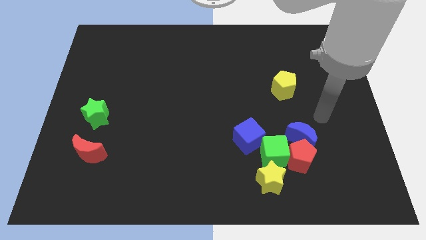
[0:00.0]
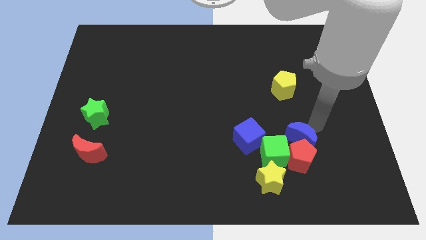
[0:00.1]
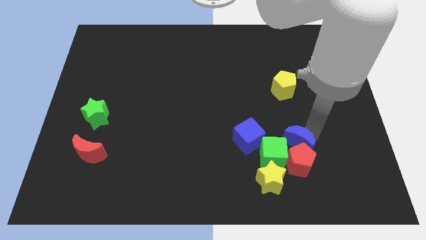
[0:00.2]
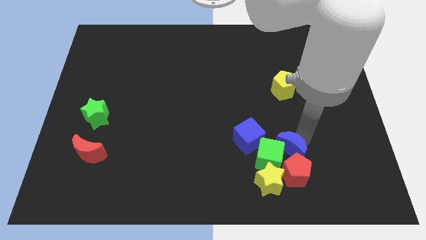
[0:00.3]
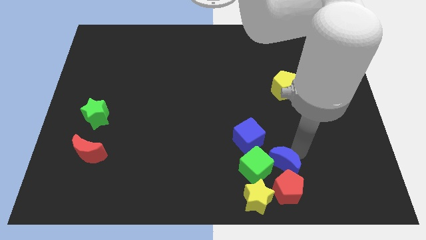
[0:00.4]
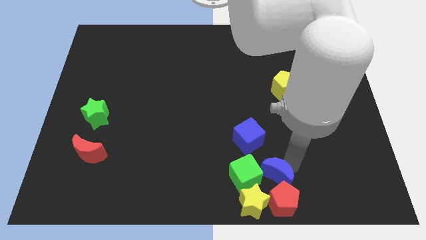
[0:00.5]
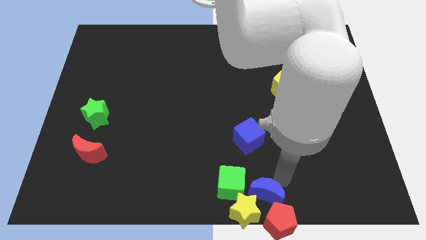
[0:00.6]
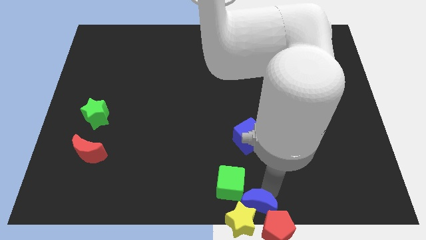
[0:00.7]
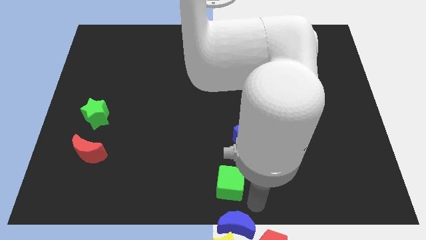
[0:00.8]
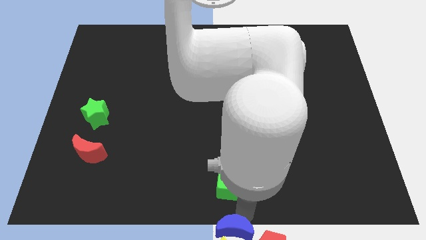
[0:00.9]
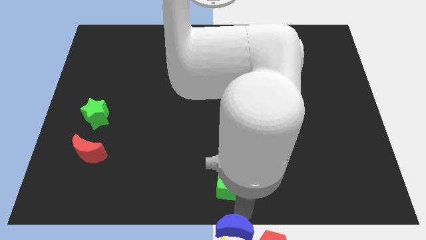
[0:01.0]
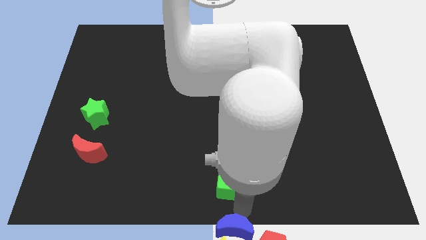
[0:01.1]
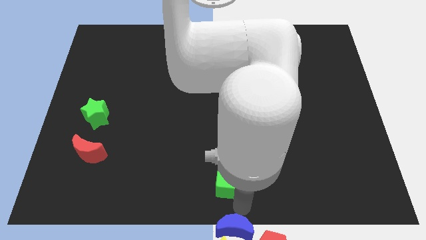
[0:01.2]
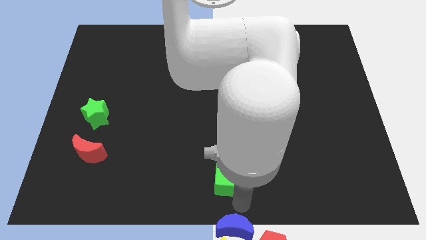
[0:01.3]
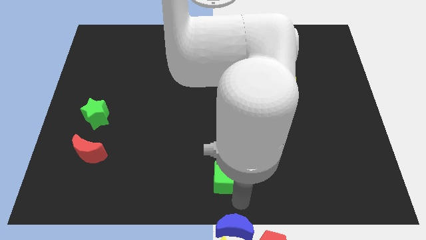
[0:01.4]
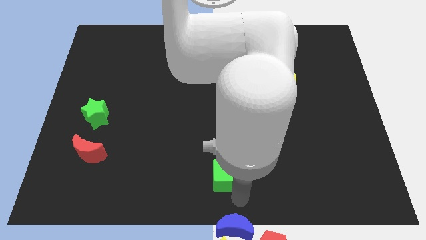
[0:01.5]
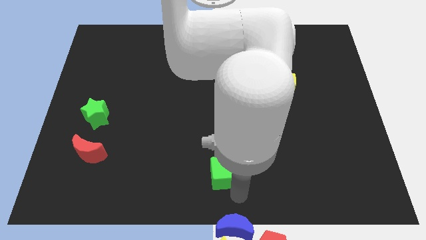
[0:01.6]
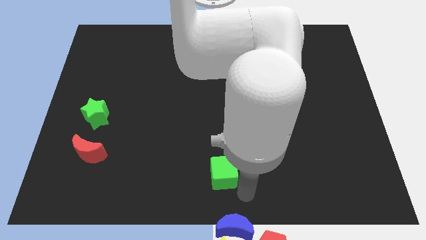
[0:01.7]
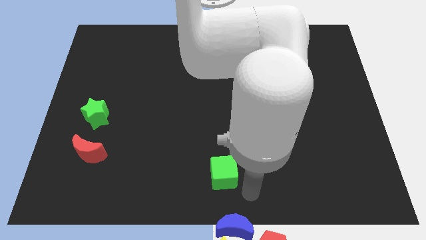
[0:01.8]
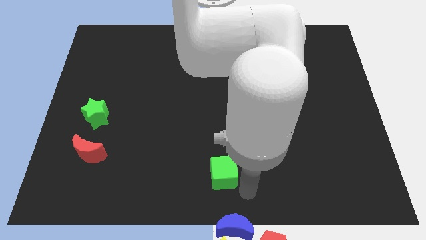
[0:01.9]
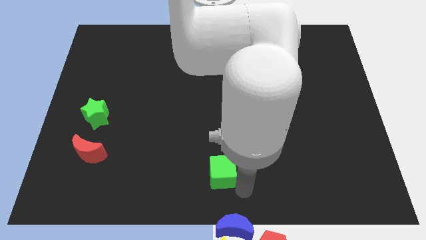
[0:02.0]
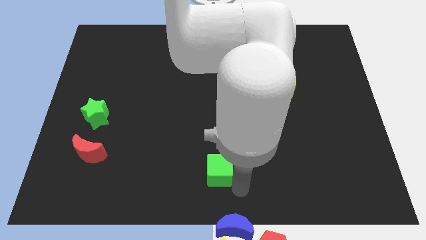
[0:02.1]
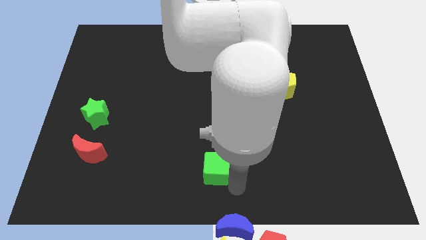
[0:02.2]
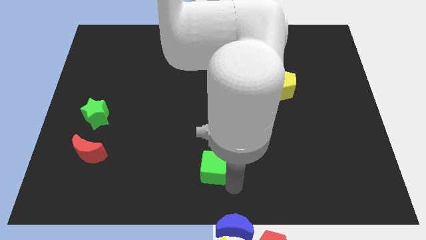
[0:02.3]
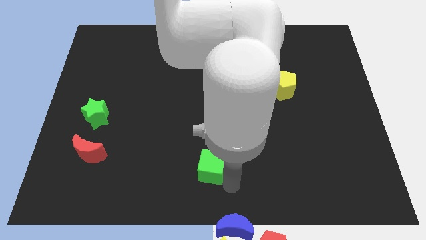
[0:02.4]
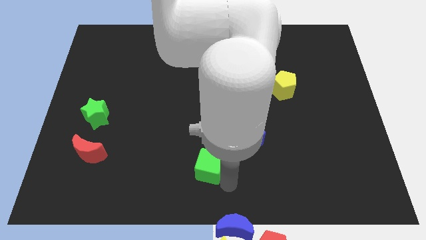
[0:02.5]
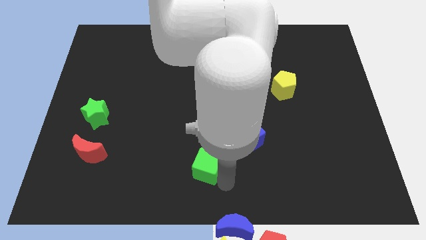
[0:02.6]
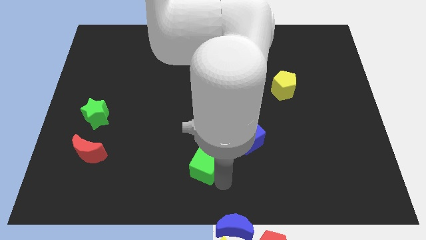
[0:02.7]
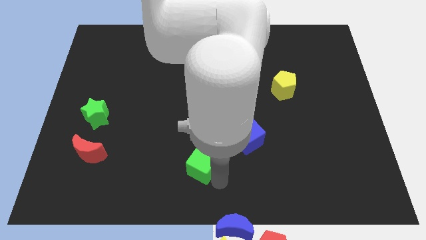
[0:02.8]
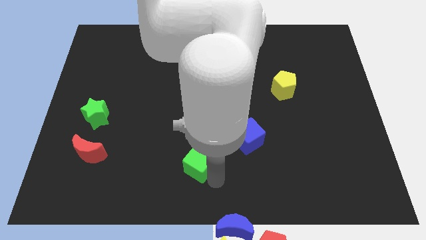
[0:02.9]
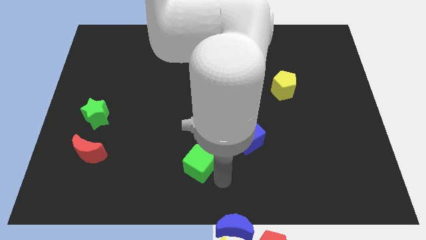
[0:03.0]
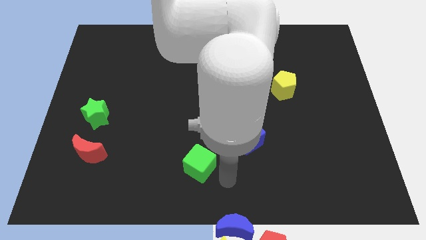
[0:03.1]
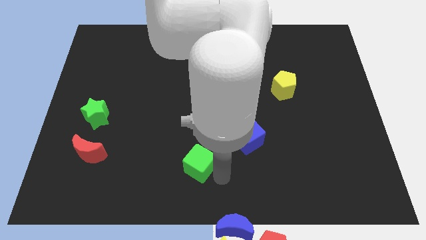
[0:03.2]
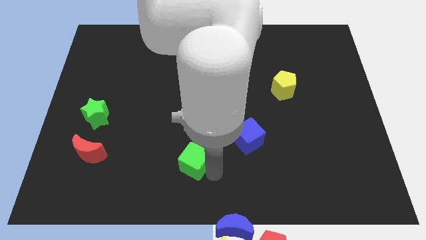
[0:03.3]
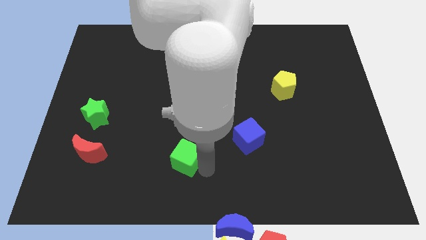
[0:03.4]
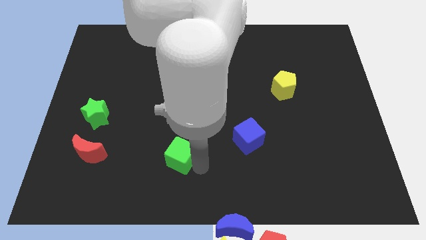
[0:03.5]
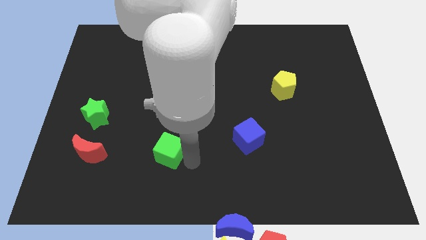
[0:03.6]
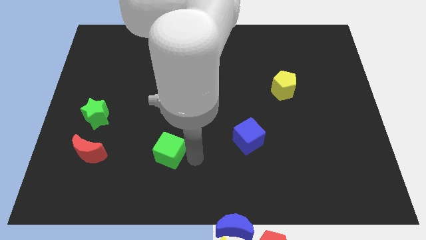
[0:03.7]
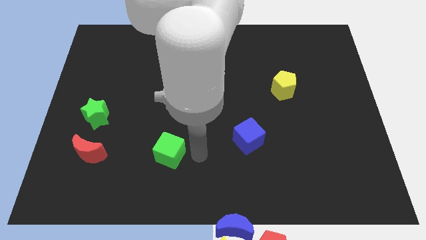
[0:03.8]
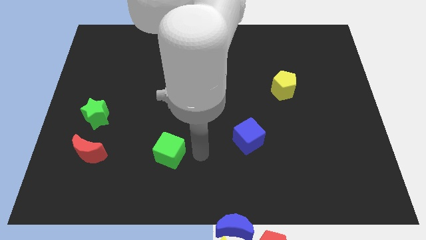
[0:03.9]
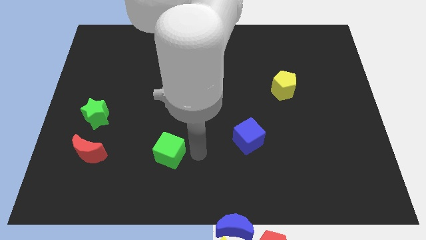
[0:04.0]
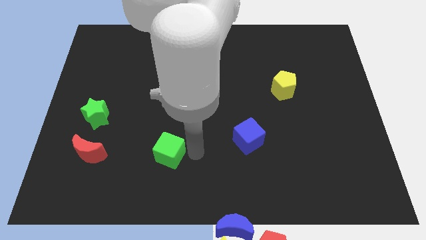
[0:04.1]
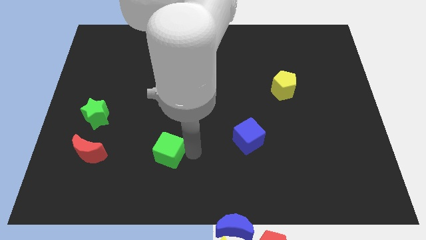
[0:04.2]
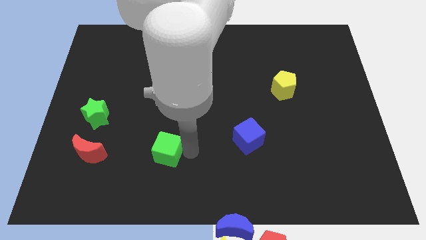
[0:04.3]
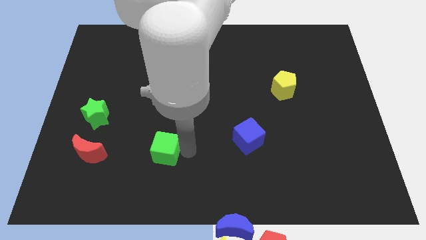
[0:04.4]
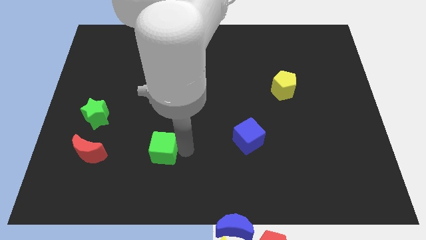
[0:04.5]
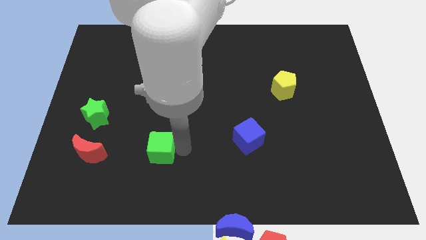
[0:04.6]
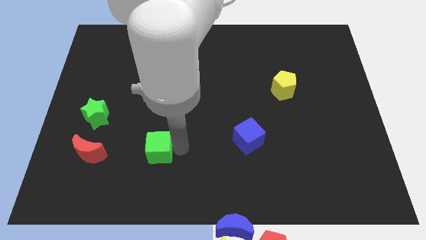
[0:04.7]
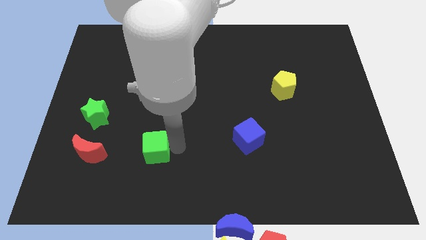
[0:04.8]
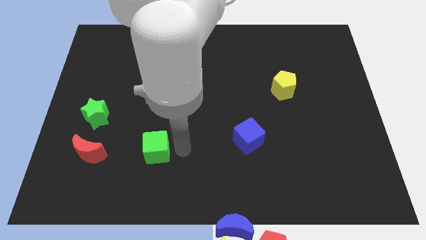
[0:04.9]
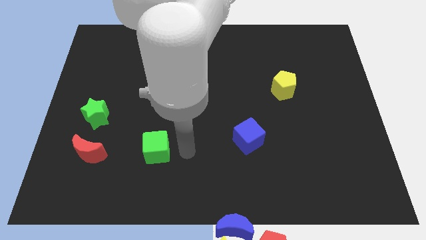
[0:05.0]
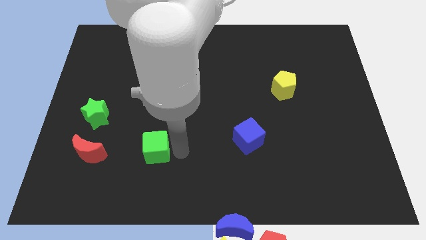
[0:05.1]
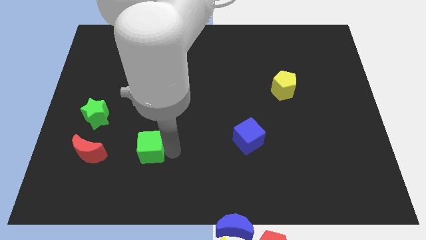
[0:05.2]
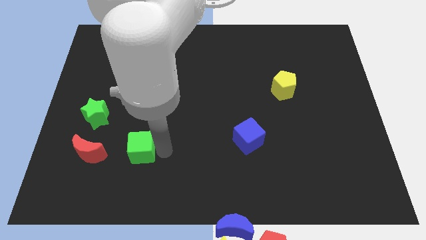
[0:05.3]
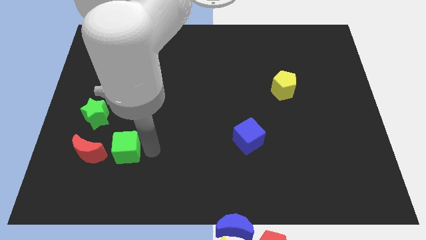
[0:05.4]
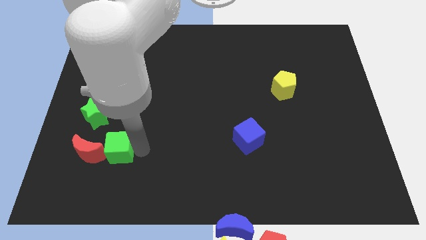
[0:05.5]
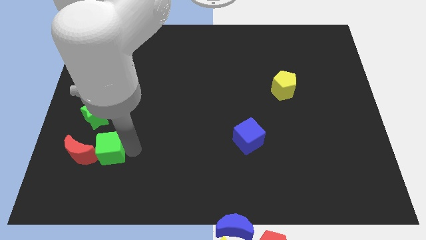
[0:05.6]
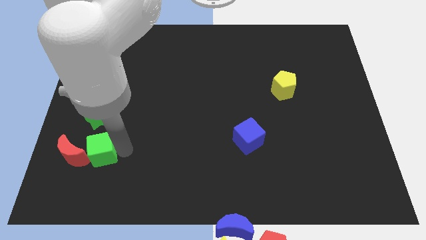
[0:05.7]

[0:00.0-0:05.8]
slide the green cube next to the red moon
